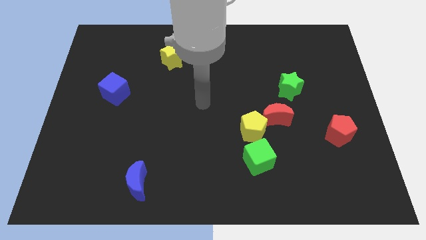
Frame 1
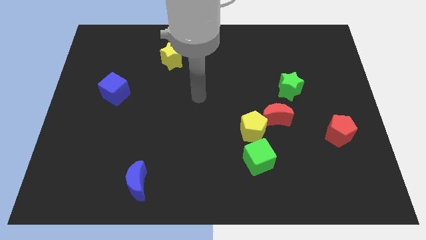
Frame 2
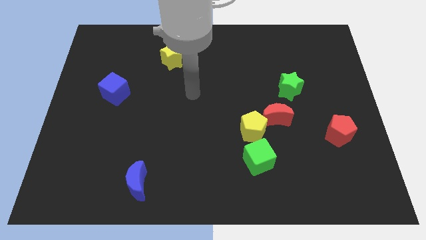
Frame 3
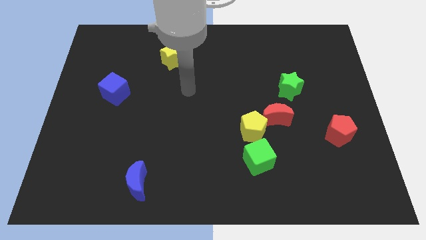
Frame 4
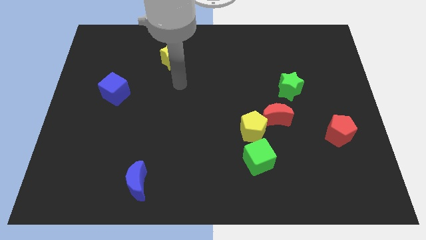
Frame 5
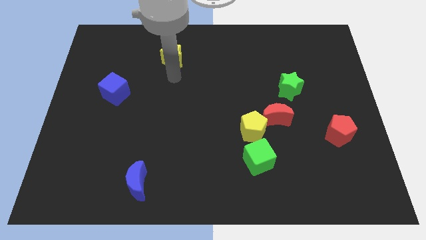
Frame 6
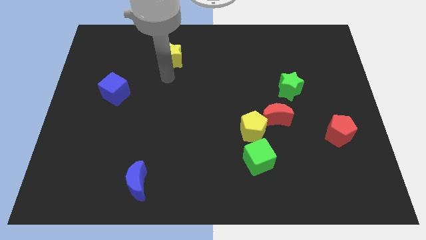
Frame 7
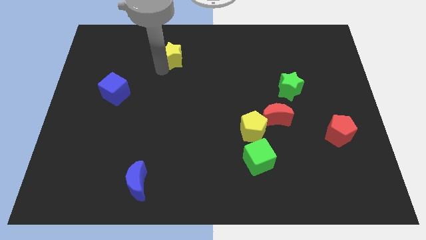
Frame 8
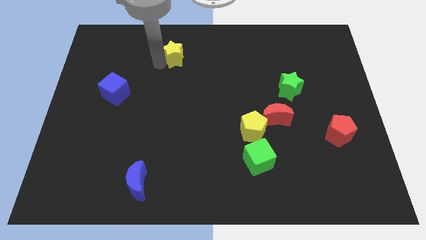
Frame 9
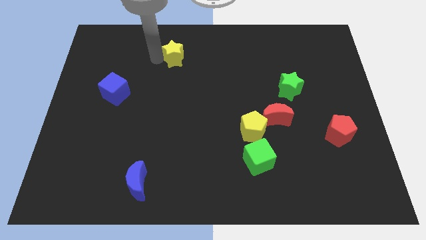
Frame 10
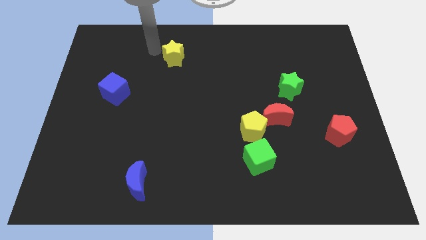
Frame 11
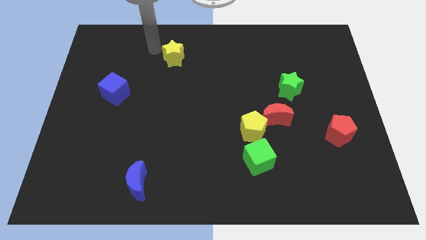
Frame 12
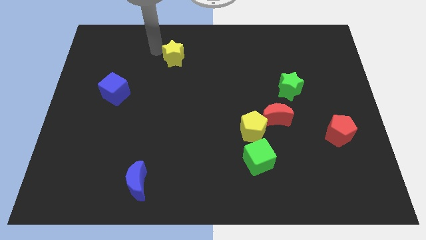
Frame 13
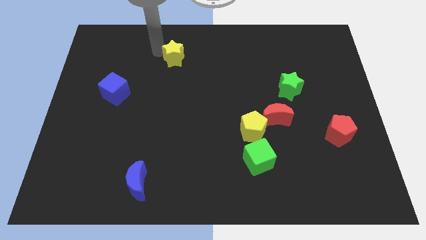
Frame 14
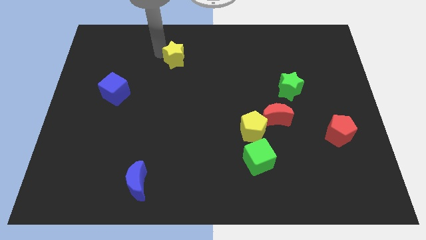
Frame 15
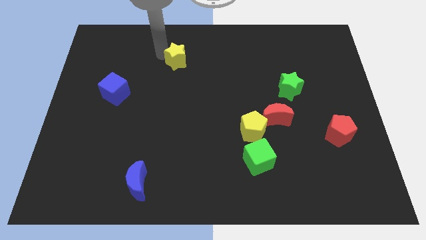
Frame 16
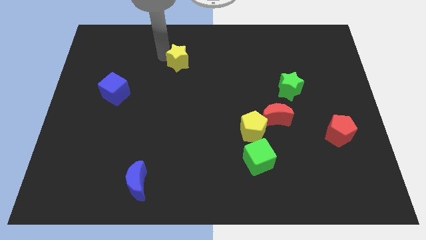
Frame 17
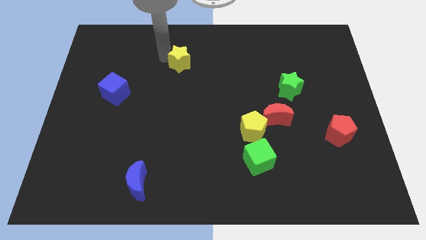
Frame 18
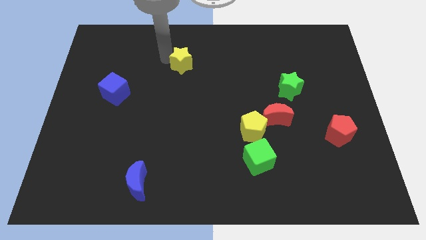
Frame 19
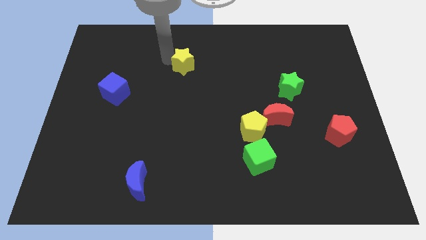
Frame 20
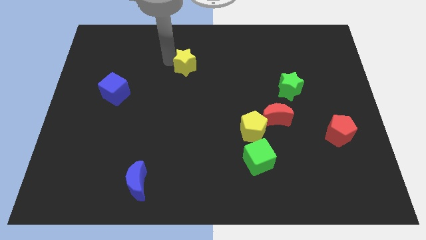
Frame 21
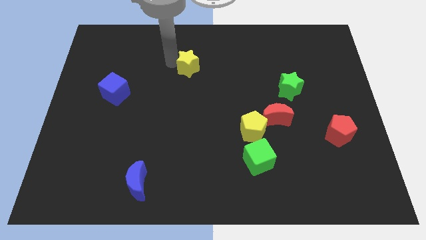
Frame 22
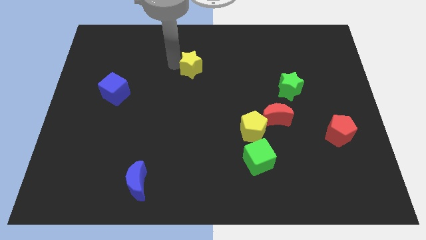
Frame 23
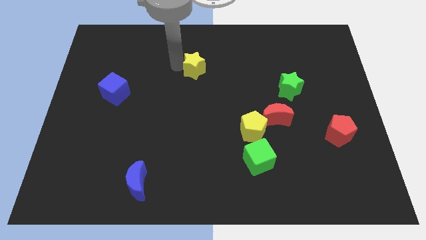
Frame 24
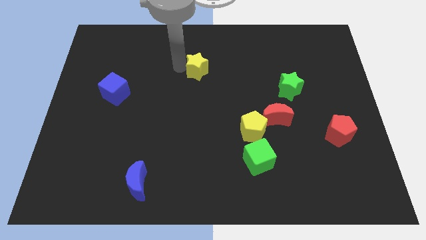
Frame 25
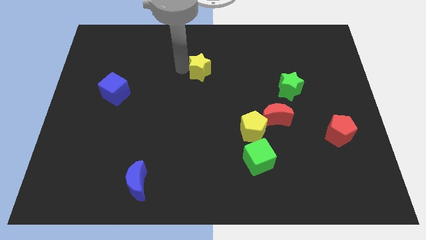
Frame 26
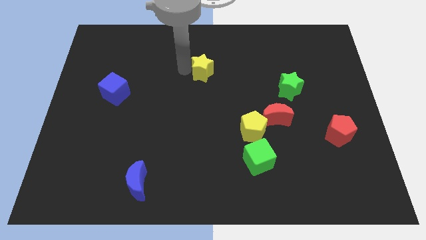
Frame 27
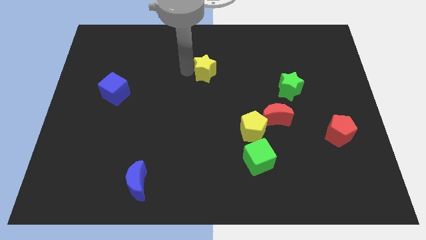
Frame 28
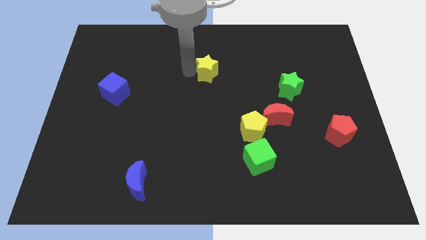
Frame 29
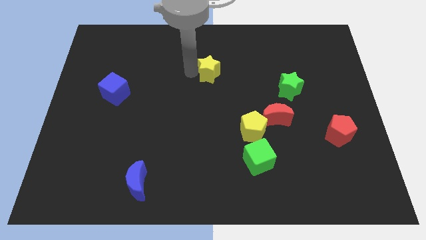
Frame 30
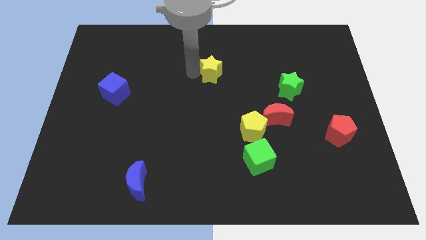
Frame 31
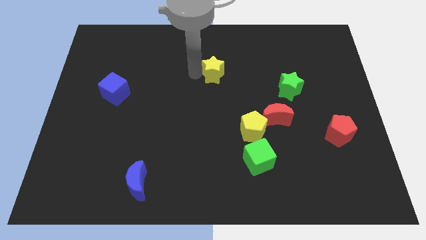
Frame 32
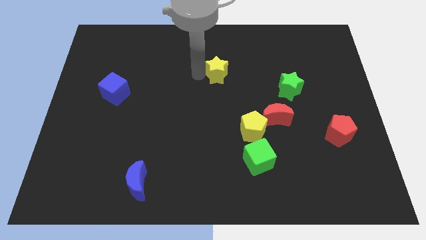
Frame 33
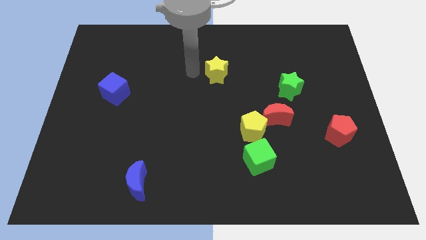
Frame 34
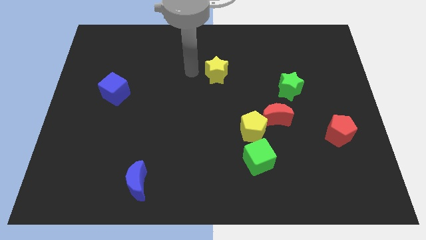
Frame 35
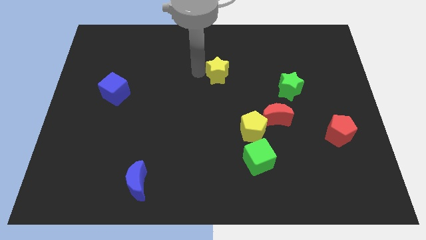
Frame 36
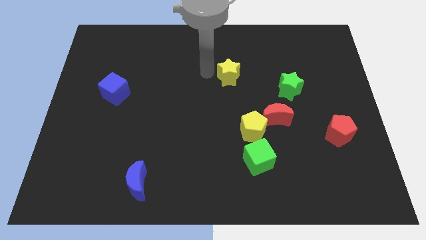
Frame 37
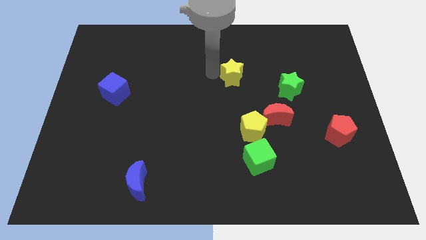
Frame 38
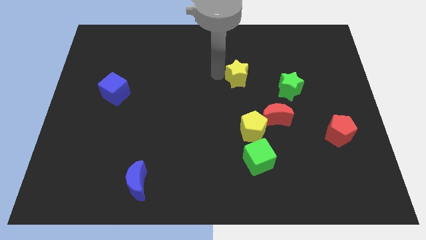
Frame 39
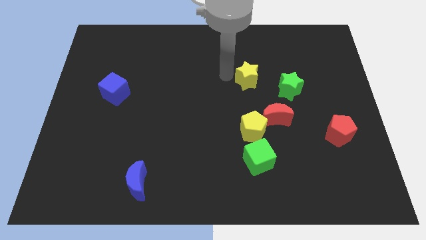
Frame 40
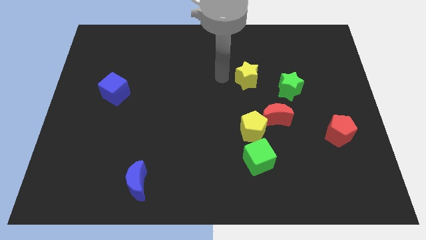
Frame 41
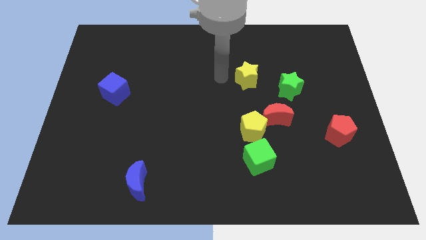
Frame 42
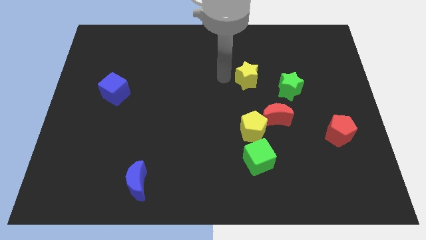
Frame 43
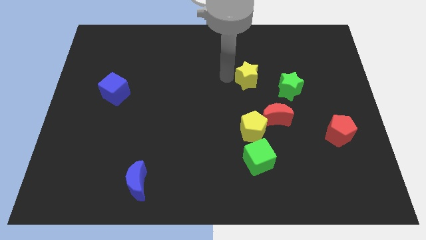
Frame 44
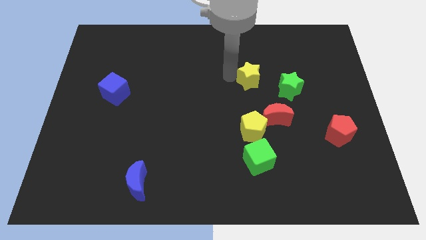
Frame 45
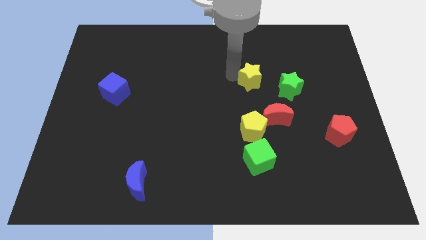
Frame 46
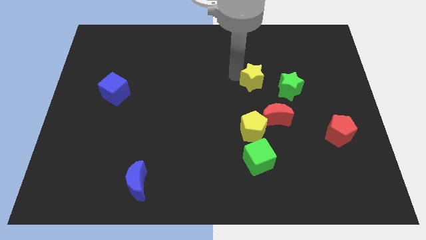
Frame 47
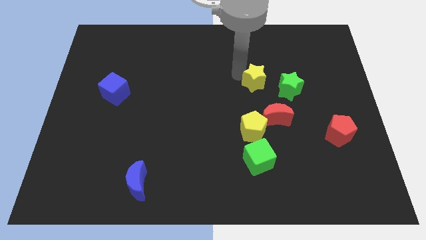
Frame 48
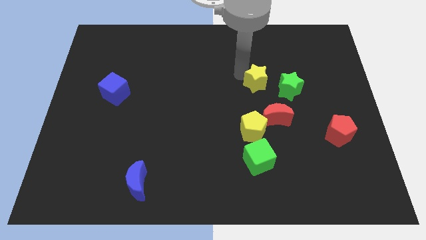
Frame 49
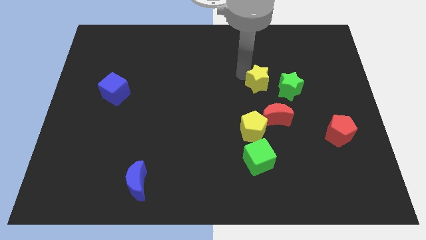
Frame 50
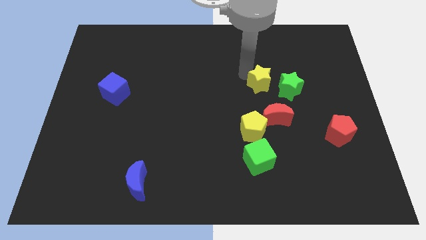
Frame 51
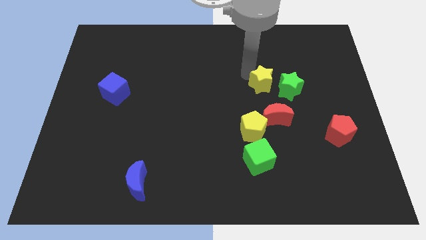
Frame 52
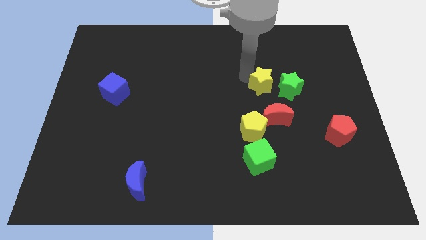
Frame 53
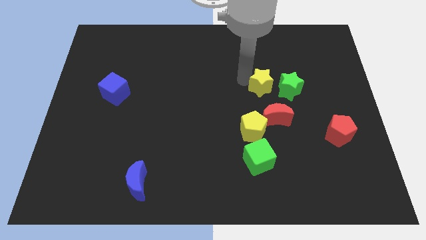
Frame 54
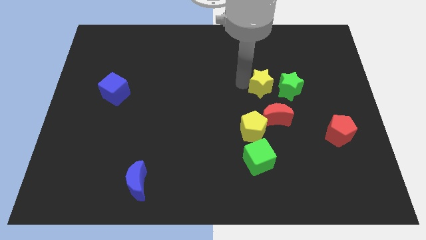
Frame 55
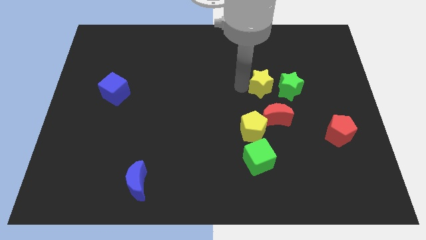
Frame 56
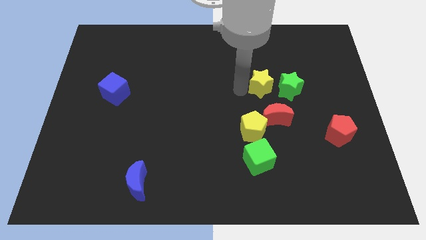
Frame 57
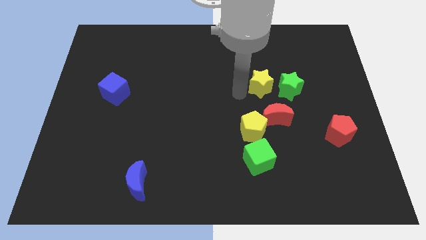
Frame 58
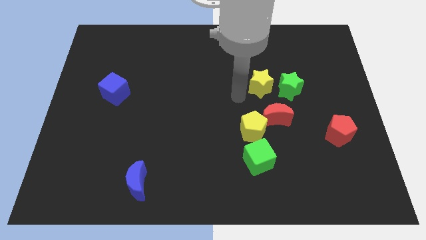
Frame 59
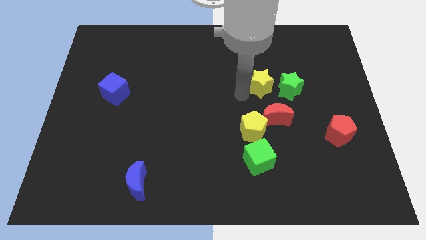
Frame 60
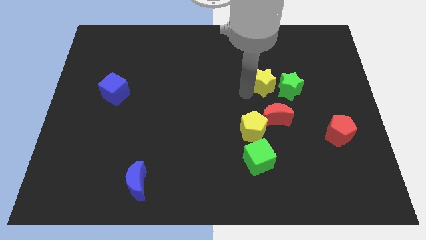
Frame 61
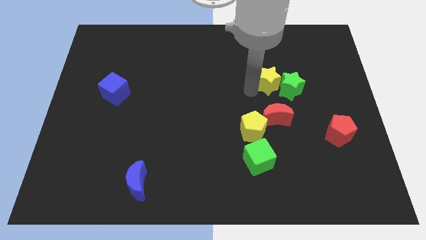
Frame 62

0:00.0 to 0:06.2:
move the yellow star towards the green star
